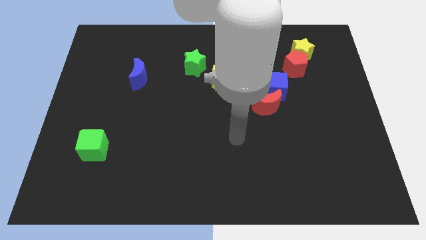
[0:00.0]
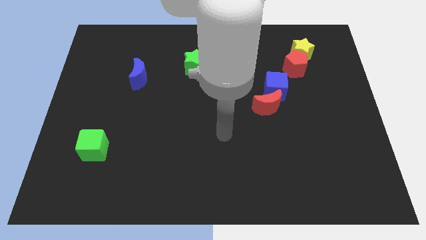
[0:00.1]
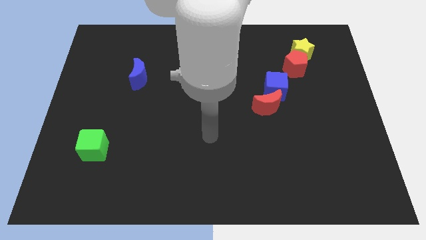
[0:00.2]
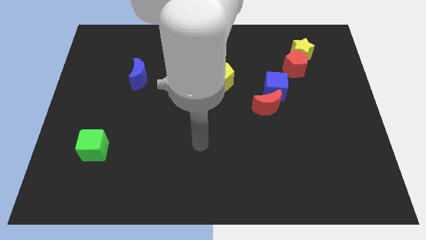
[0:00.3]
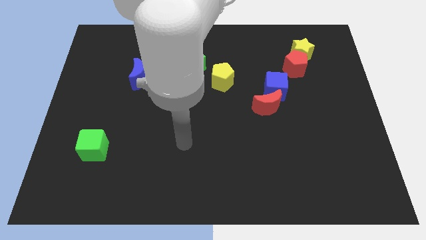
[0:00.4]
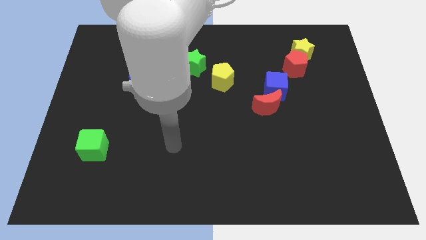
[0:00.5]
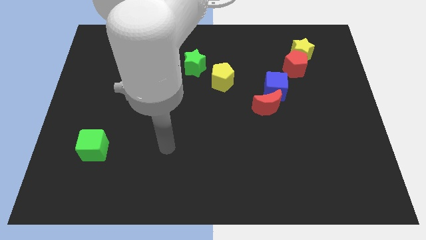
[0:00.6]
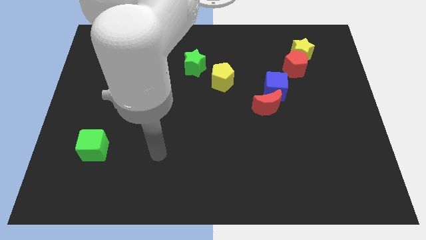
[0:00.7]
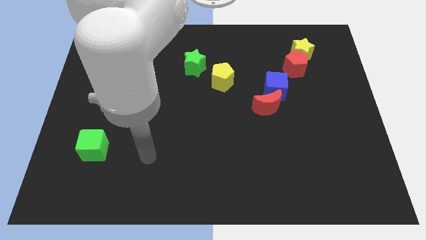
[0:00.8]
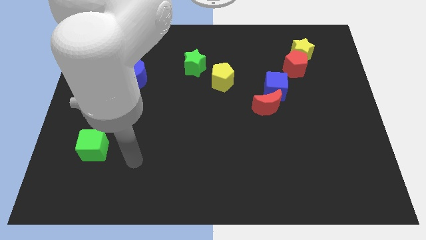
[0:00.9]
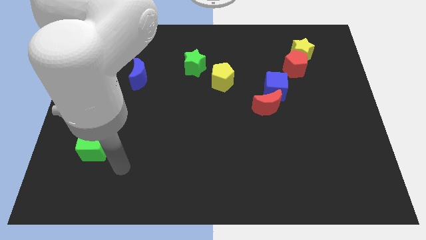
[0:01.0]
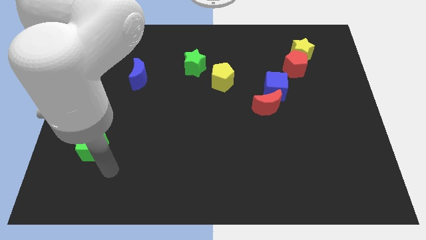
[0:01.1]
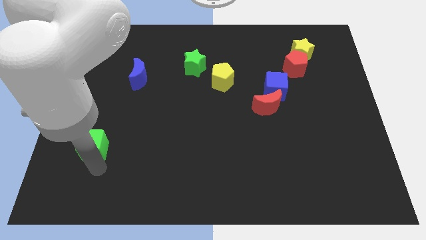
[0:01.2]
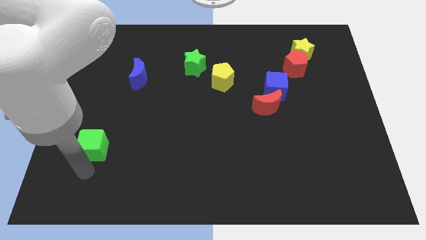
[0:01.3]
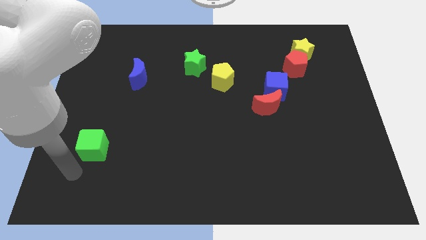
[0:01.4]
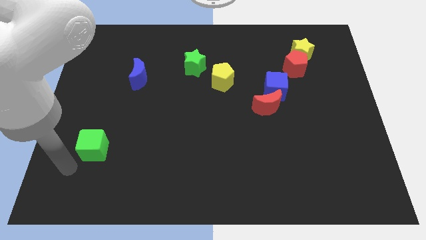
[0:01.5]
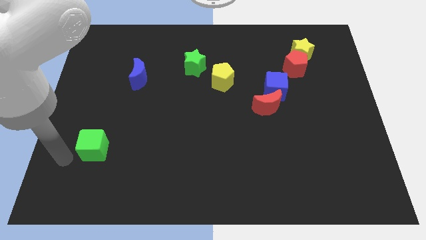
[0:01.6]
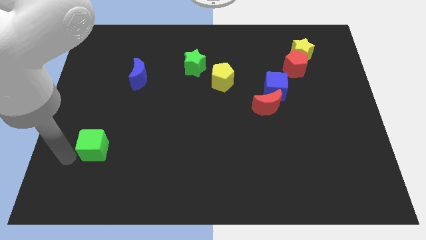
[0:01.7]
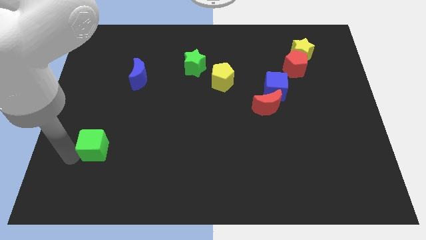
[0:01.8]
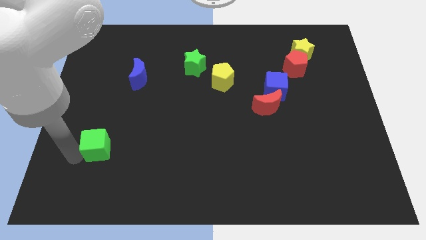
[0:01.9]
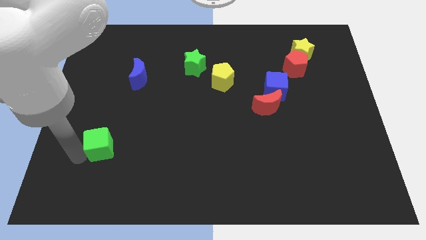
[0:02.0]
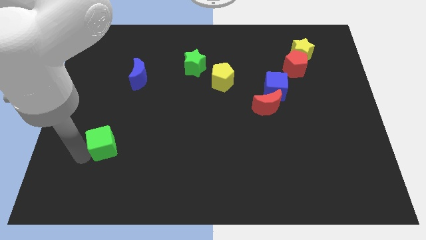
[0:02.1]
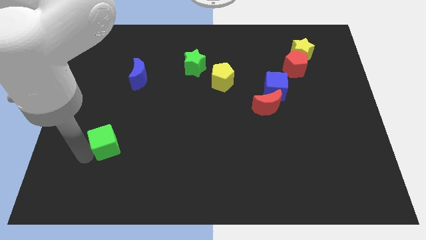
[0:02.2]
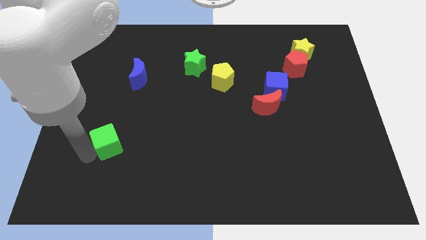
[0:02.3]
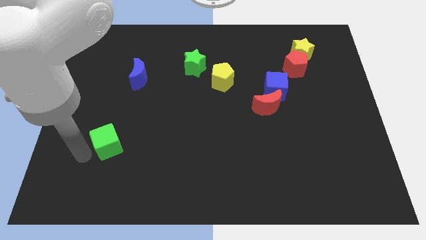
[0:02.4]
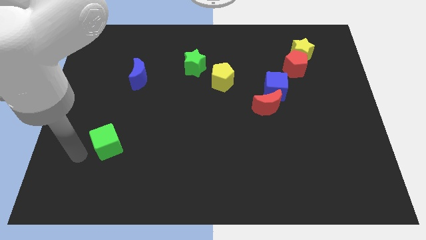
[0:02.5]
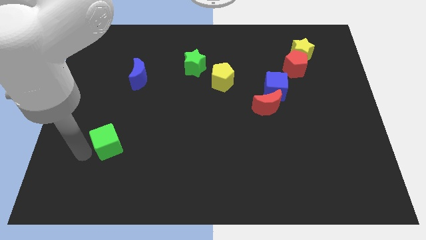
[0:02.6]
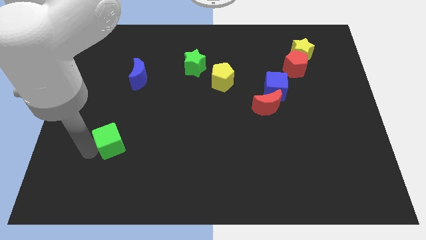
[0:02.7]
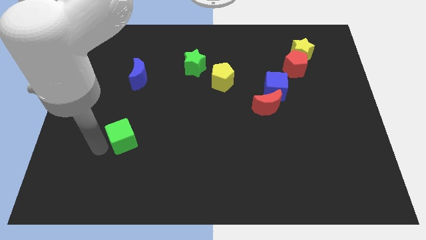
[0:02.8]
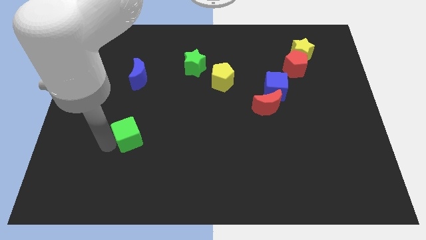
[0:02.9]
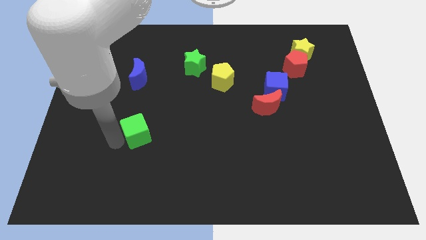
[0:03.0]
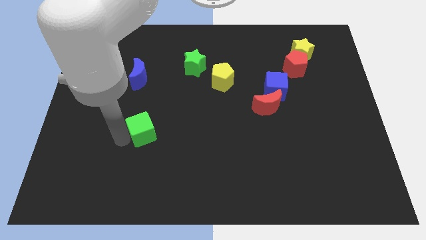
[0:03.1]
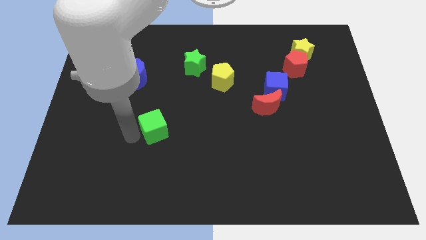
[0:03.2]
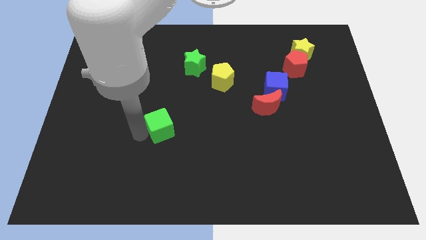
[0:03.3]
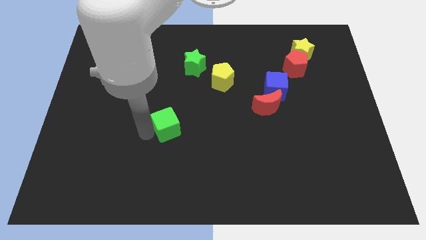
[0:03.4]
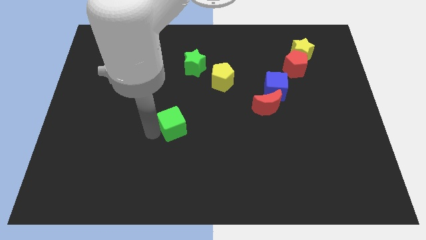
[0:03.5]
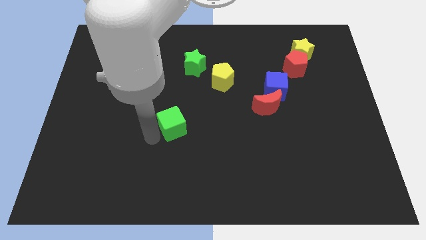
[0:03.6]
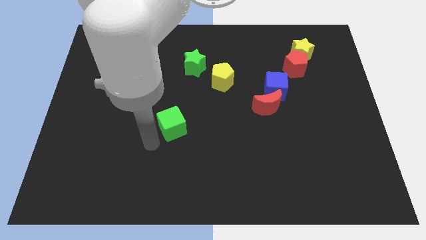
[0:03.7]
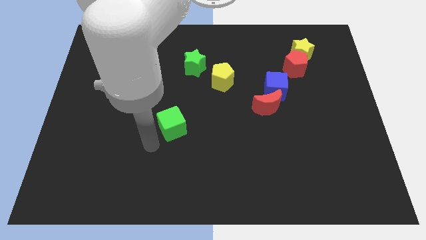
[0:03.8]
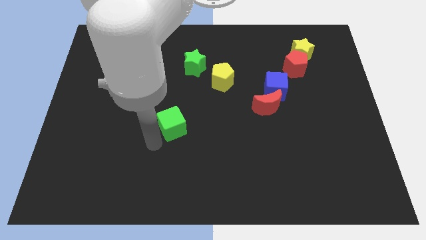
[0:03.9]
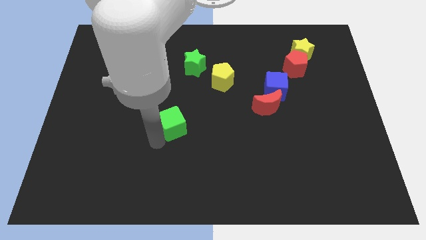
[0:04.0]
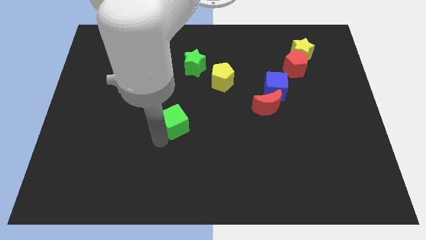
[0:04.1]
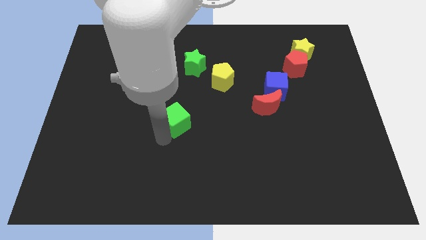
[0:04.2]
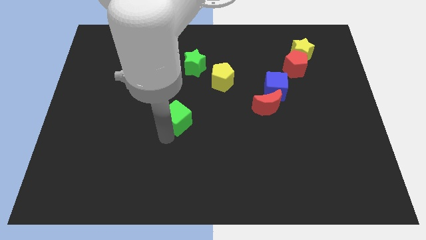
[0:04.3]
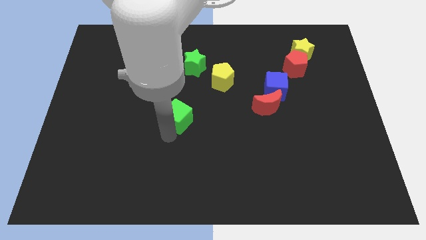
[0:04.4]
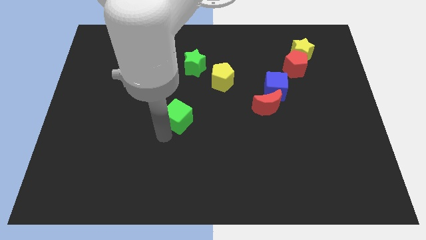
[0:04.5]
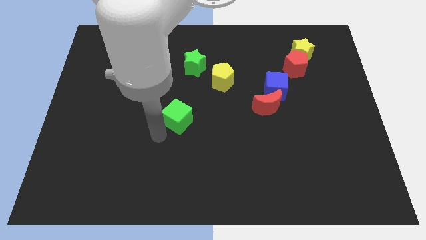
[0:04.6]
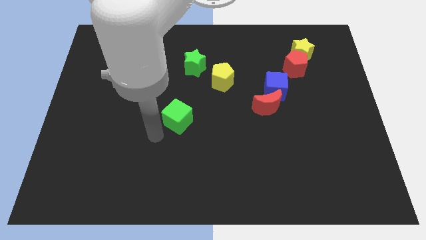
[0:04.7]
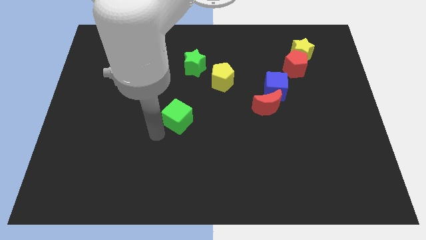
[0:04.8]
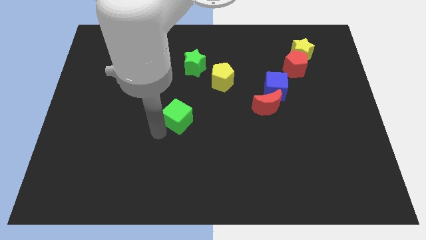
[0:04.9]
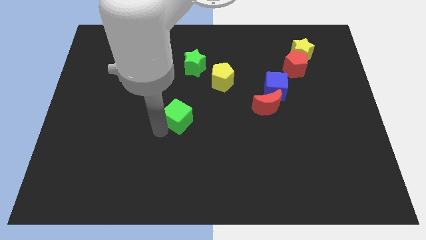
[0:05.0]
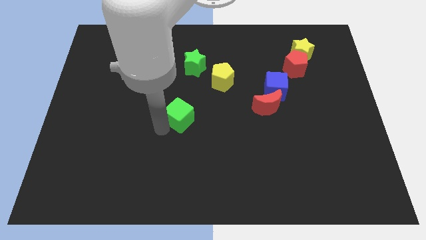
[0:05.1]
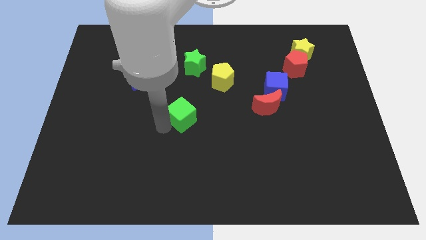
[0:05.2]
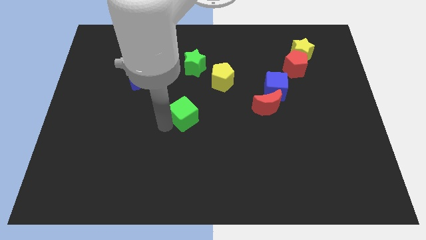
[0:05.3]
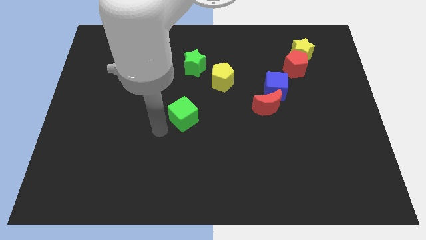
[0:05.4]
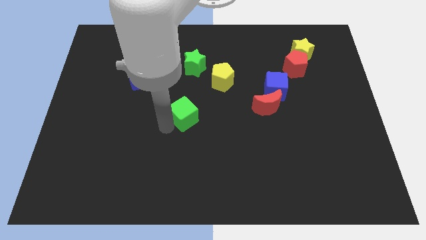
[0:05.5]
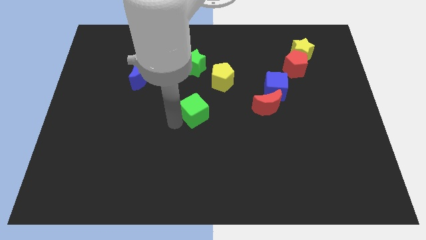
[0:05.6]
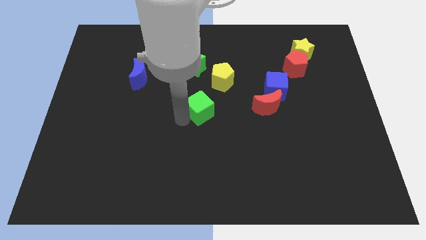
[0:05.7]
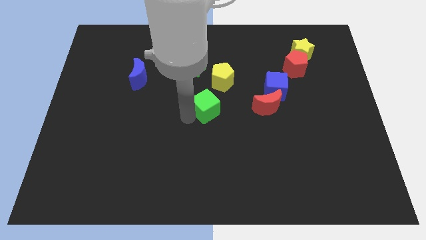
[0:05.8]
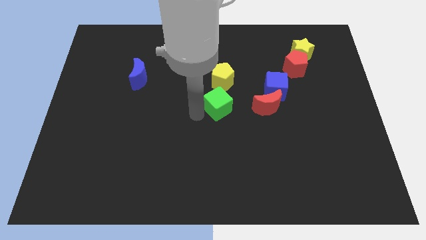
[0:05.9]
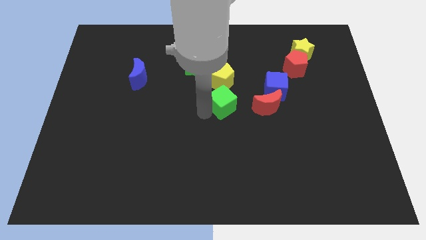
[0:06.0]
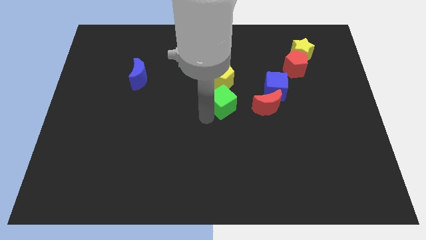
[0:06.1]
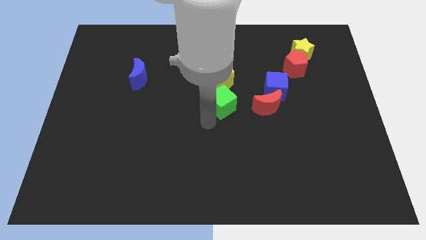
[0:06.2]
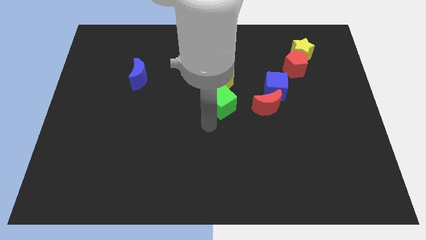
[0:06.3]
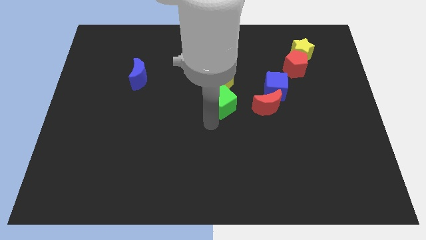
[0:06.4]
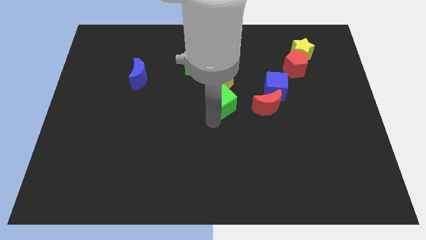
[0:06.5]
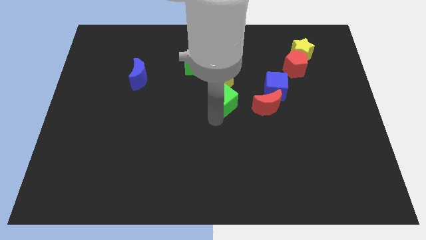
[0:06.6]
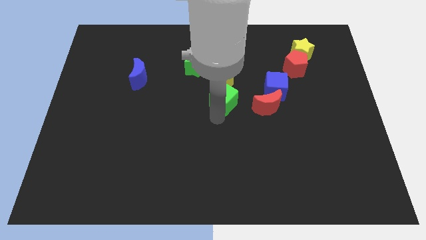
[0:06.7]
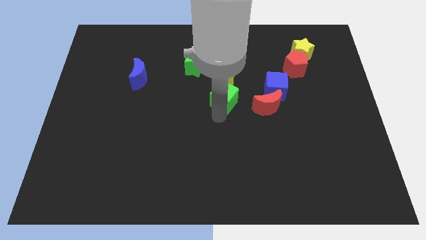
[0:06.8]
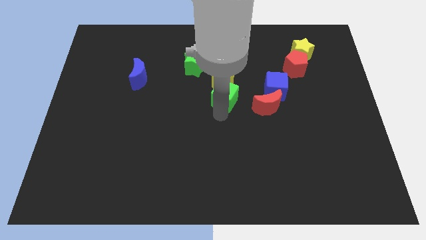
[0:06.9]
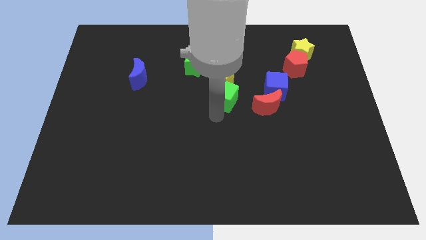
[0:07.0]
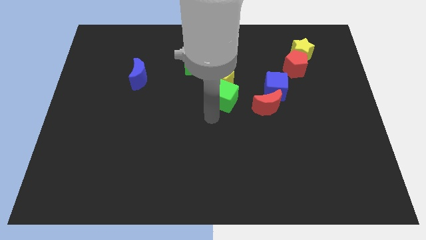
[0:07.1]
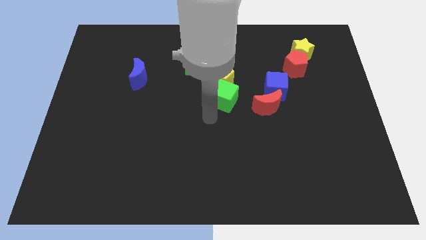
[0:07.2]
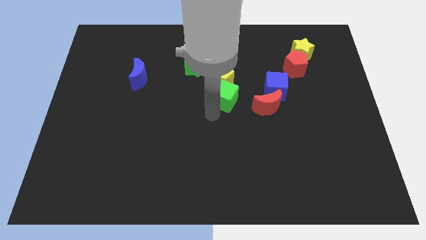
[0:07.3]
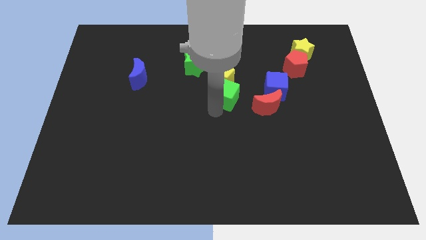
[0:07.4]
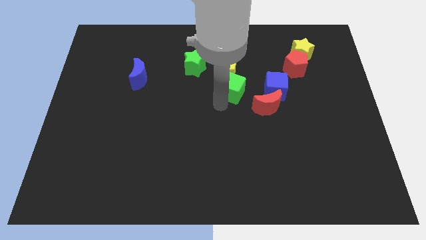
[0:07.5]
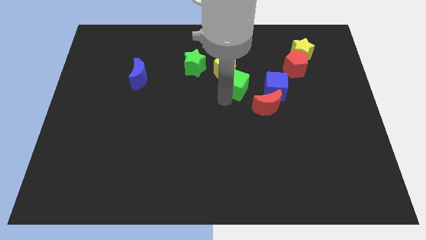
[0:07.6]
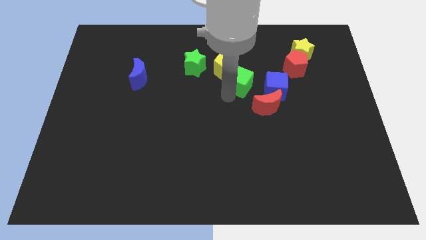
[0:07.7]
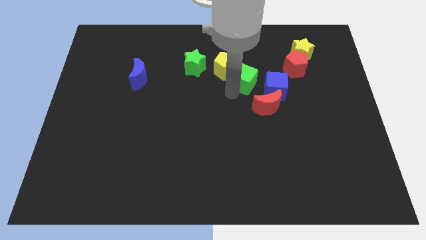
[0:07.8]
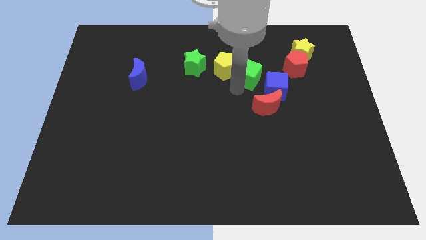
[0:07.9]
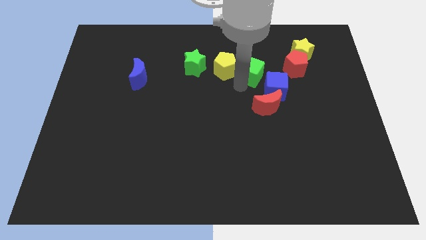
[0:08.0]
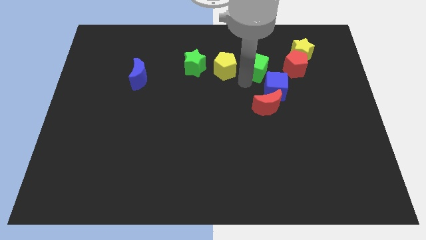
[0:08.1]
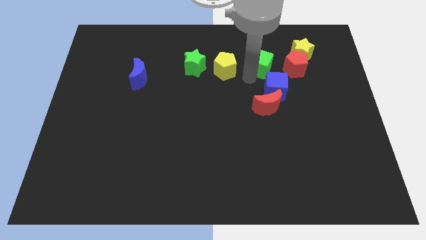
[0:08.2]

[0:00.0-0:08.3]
slide the green cube left of the yellow star
